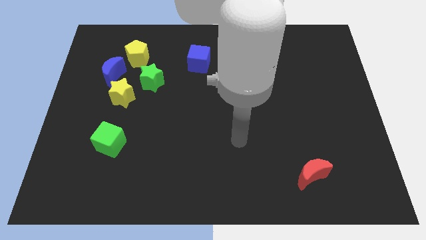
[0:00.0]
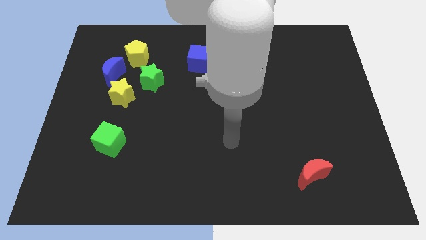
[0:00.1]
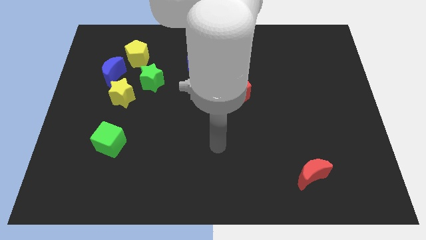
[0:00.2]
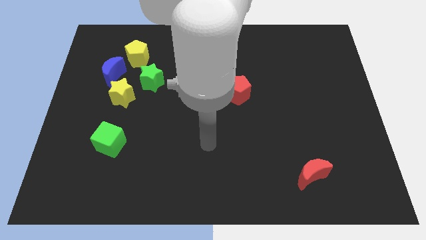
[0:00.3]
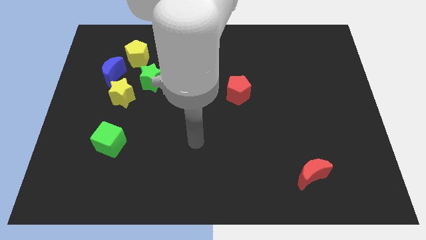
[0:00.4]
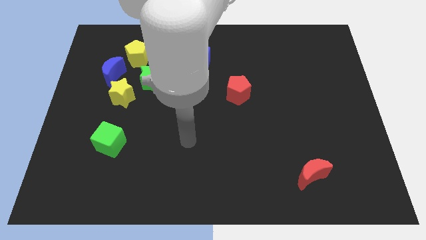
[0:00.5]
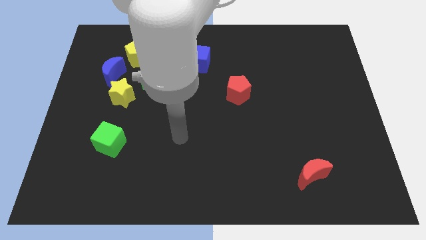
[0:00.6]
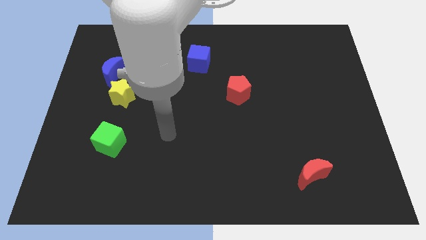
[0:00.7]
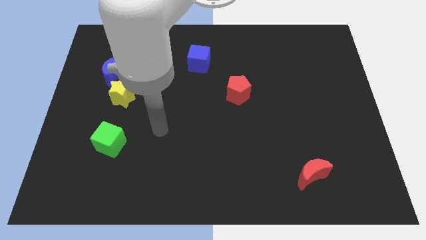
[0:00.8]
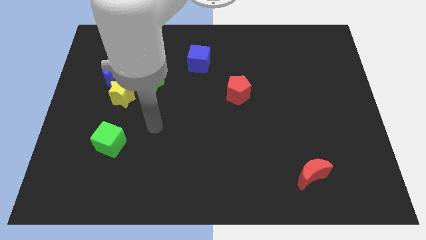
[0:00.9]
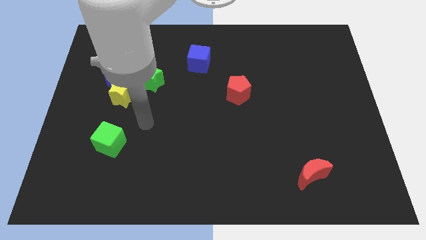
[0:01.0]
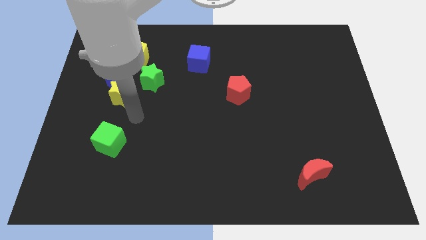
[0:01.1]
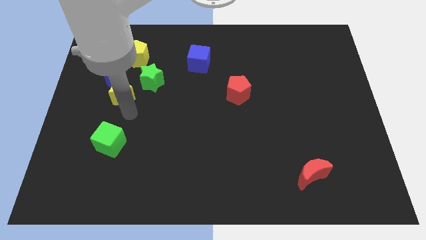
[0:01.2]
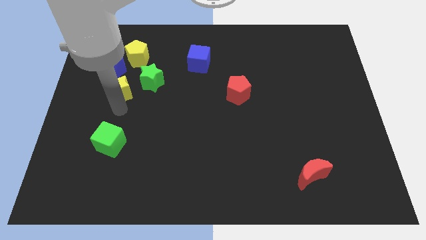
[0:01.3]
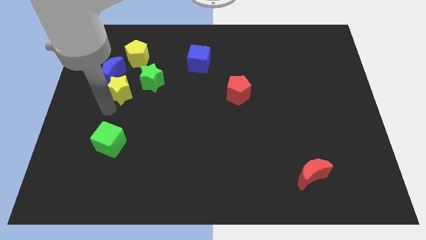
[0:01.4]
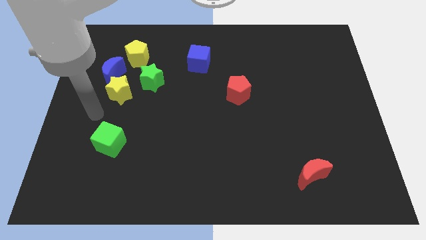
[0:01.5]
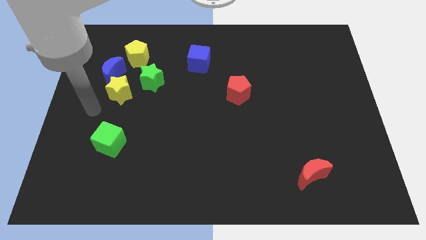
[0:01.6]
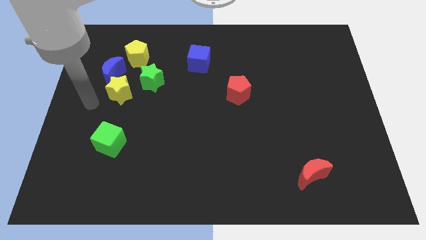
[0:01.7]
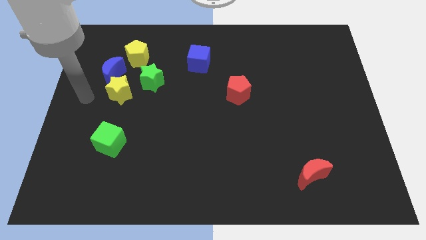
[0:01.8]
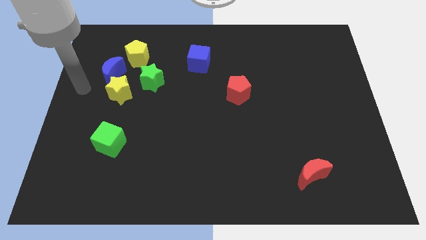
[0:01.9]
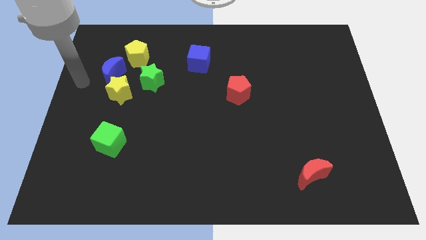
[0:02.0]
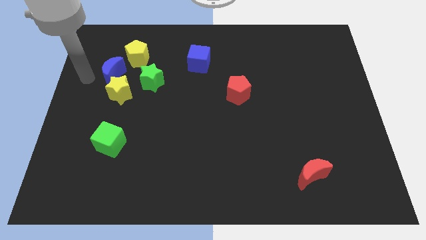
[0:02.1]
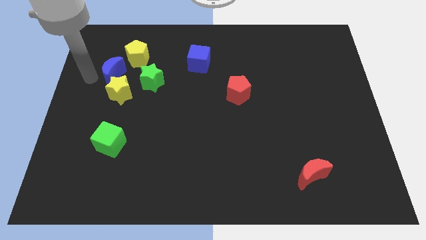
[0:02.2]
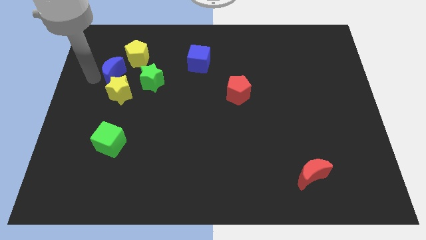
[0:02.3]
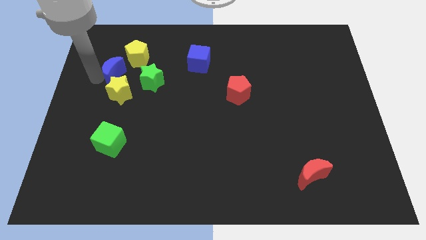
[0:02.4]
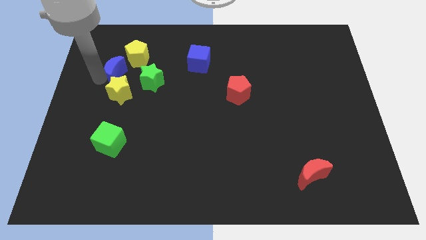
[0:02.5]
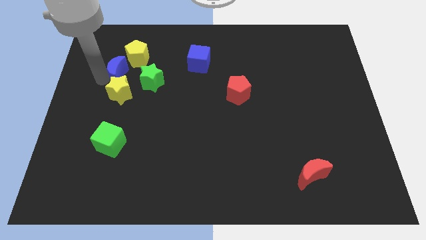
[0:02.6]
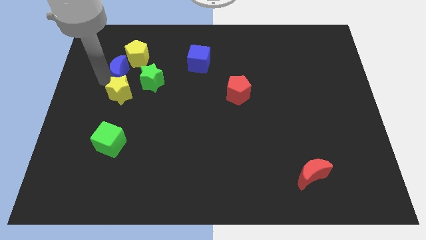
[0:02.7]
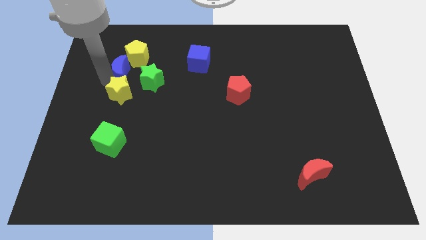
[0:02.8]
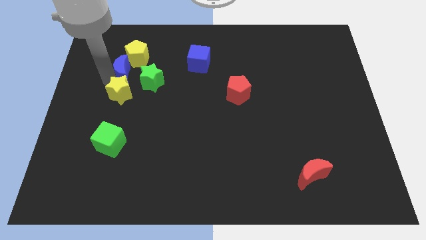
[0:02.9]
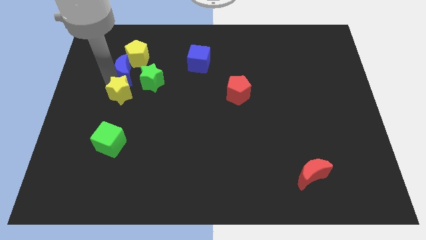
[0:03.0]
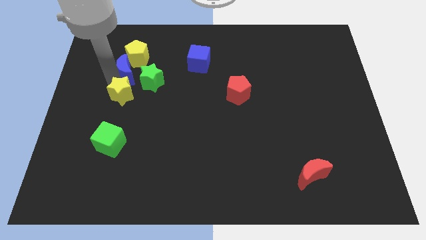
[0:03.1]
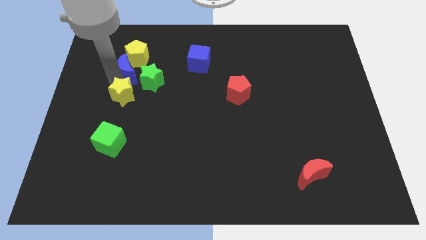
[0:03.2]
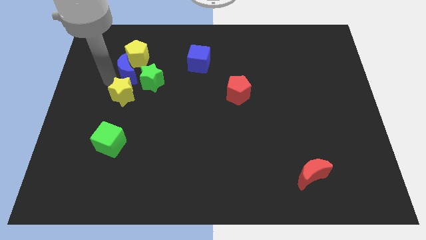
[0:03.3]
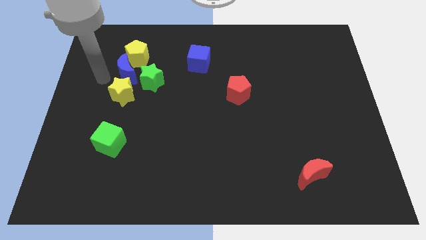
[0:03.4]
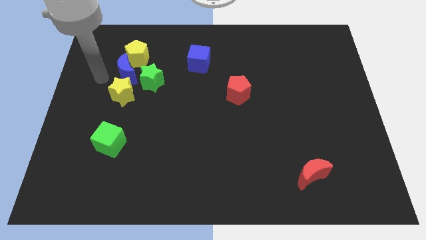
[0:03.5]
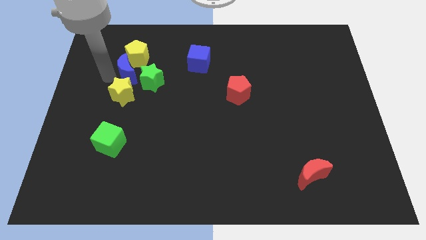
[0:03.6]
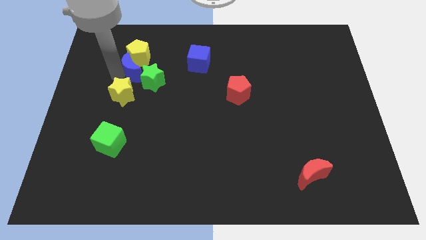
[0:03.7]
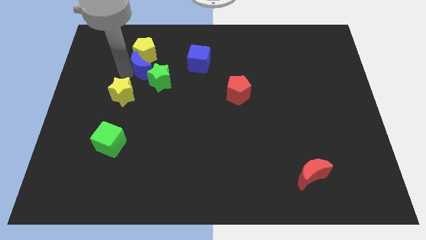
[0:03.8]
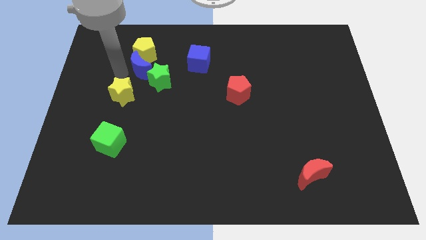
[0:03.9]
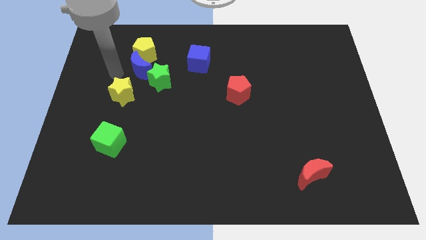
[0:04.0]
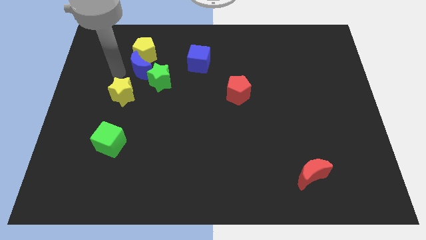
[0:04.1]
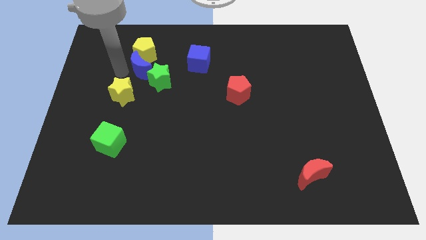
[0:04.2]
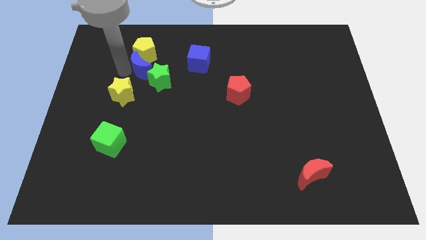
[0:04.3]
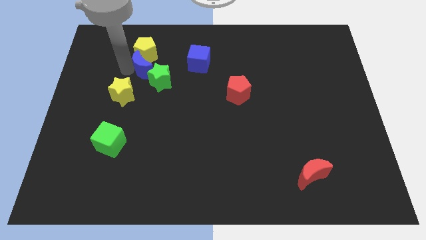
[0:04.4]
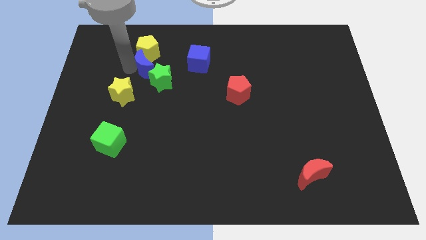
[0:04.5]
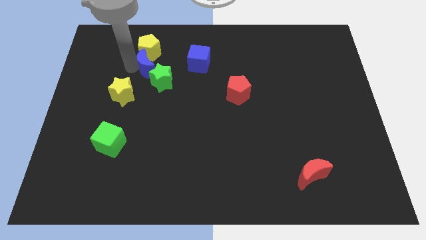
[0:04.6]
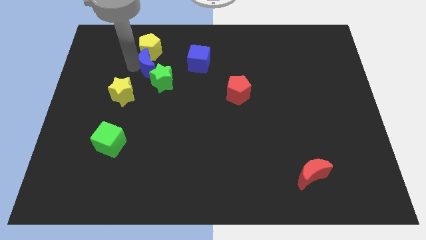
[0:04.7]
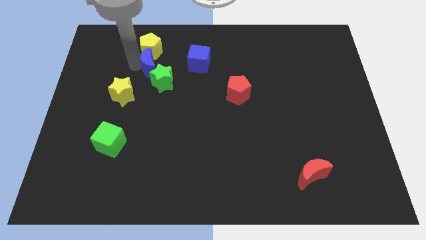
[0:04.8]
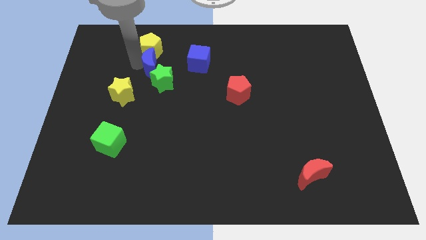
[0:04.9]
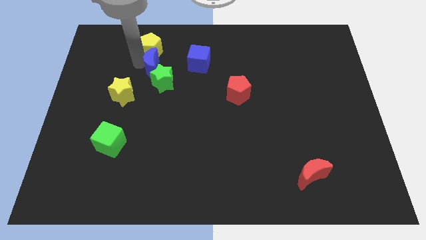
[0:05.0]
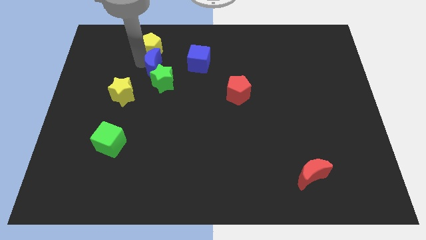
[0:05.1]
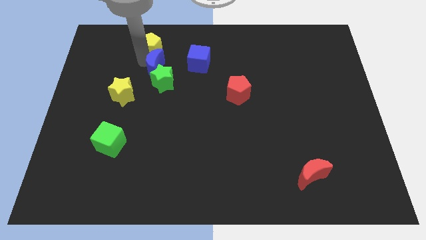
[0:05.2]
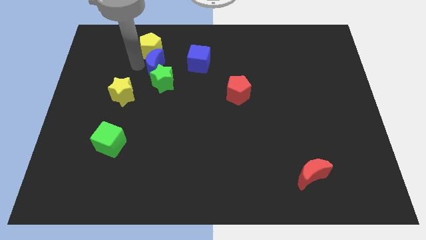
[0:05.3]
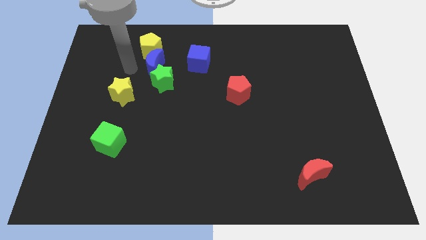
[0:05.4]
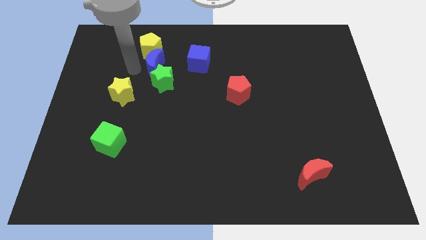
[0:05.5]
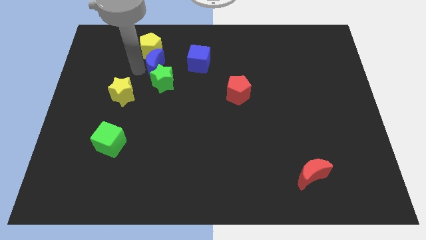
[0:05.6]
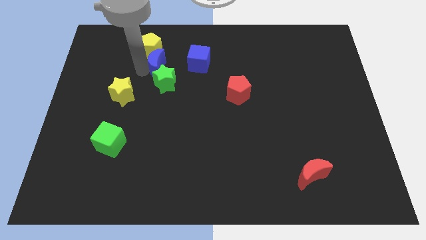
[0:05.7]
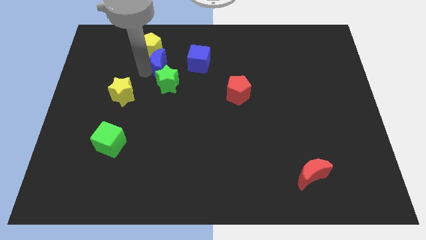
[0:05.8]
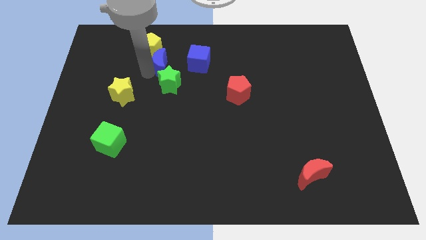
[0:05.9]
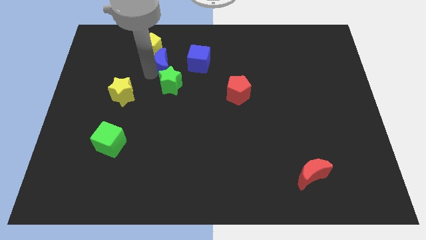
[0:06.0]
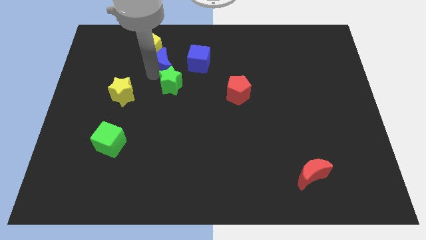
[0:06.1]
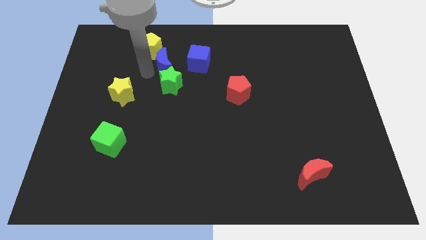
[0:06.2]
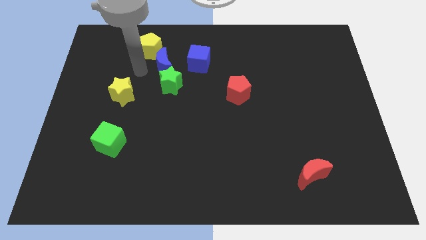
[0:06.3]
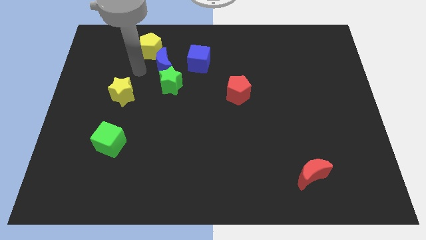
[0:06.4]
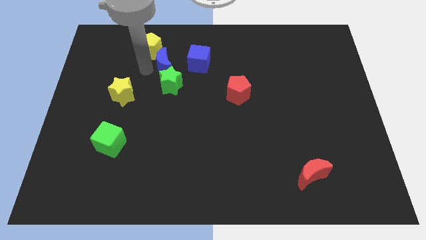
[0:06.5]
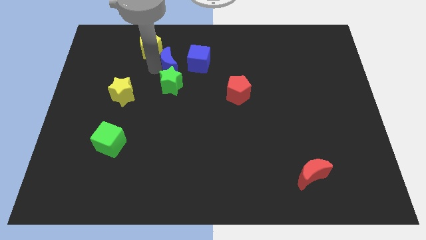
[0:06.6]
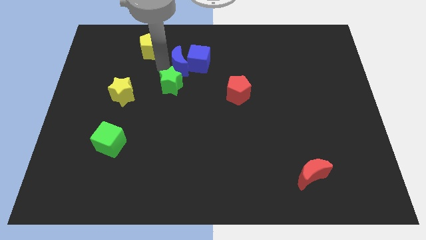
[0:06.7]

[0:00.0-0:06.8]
put the blue moon next to the blue cube
